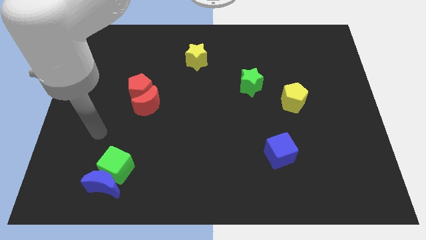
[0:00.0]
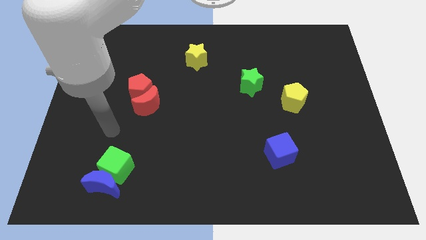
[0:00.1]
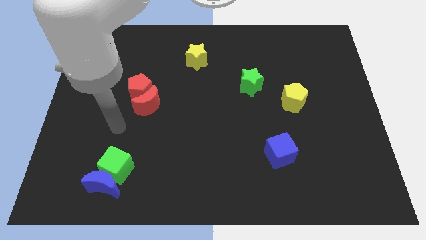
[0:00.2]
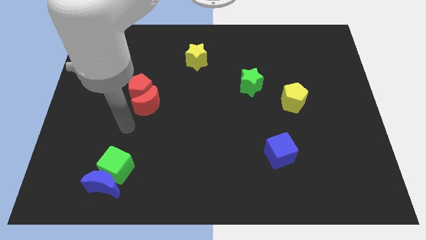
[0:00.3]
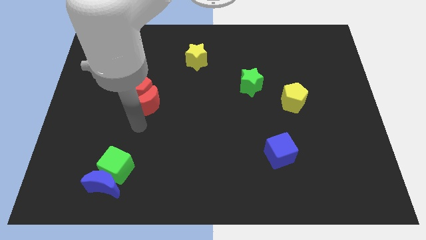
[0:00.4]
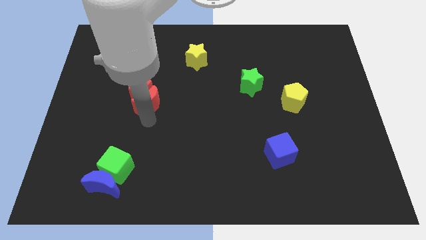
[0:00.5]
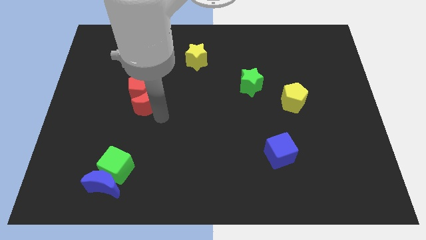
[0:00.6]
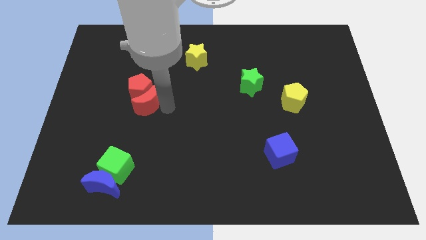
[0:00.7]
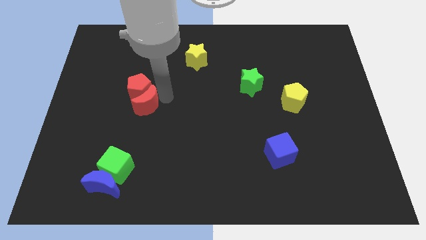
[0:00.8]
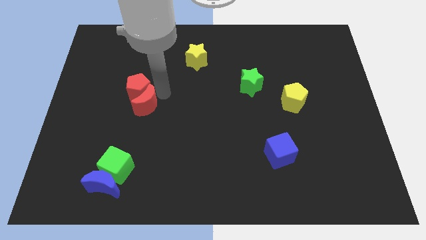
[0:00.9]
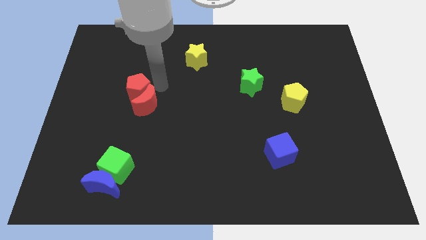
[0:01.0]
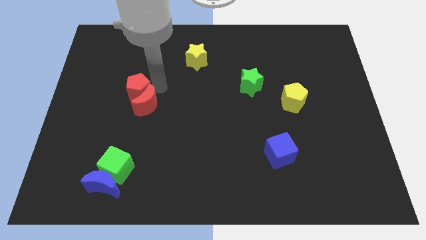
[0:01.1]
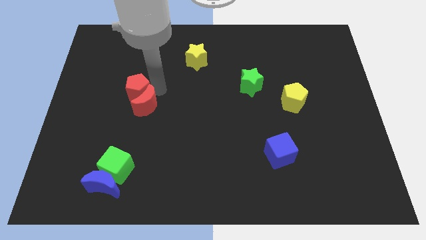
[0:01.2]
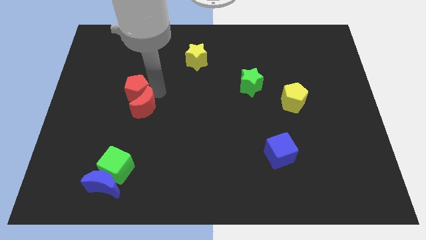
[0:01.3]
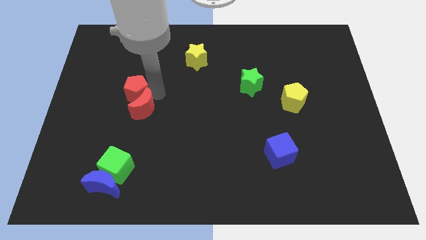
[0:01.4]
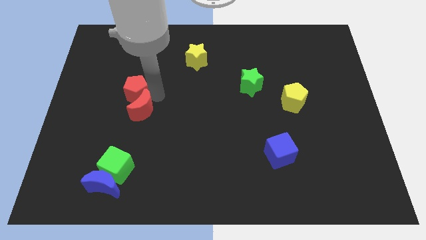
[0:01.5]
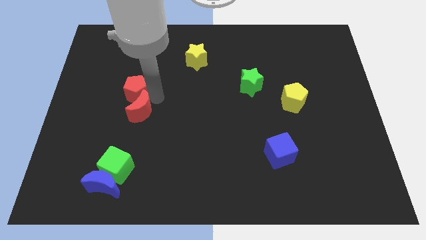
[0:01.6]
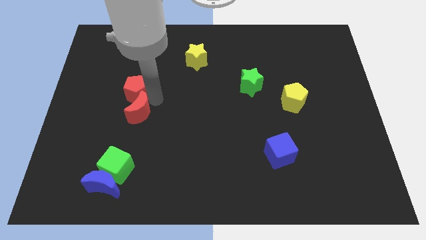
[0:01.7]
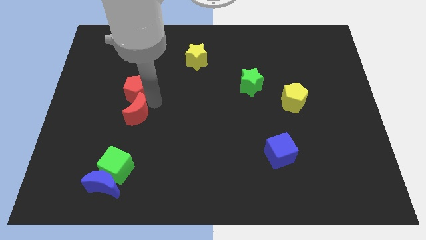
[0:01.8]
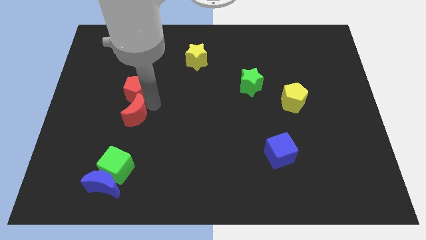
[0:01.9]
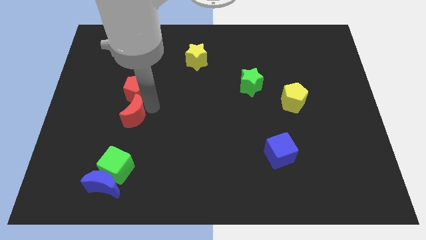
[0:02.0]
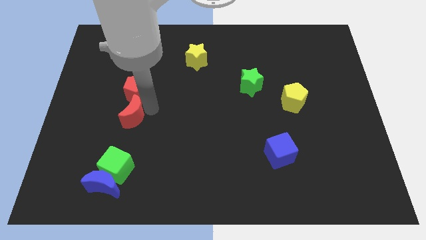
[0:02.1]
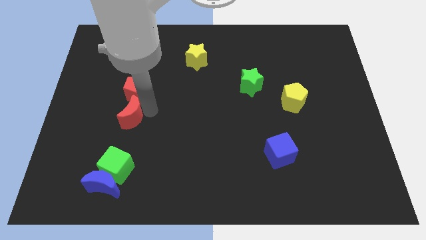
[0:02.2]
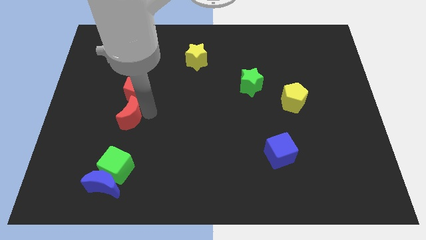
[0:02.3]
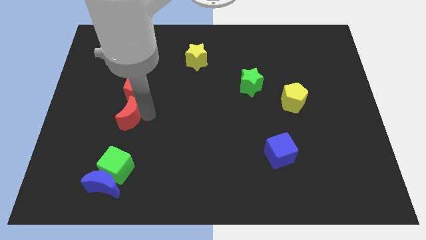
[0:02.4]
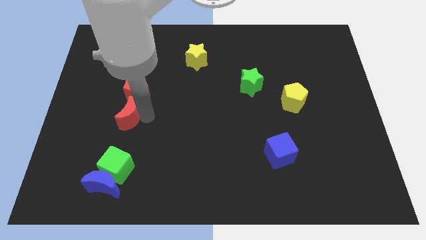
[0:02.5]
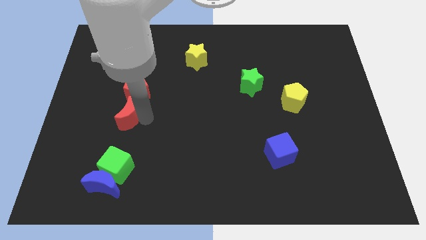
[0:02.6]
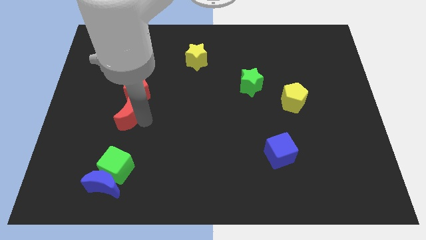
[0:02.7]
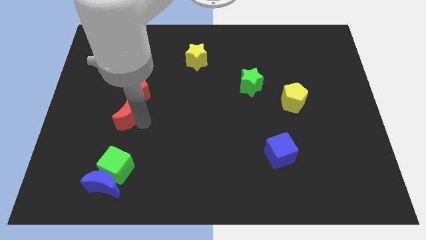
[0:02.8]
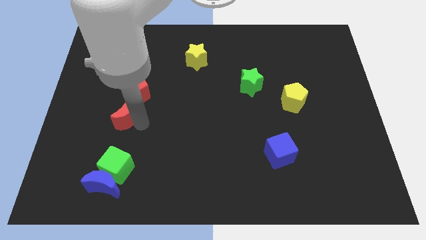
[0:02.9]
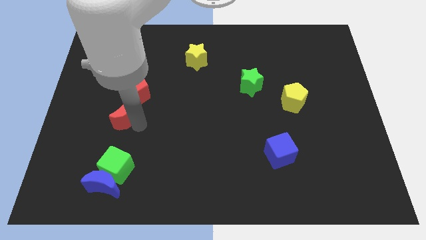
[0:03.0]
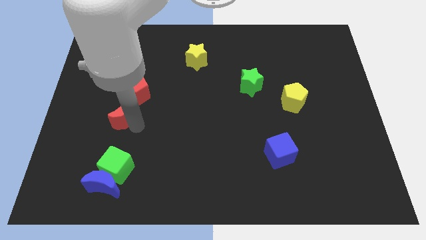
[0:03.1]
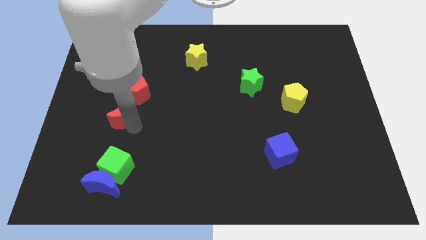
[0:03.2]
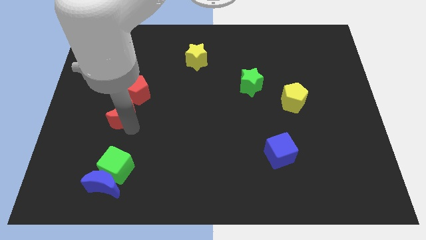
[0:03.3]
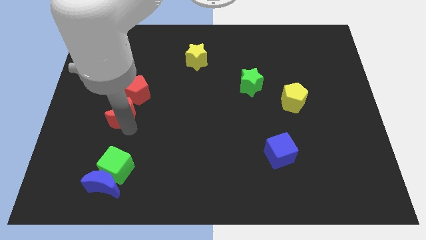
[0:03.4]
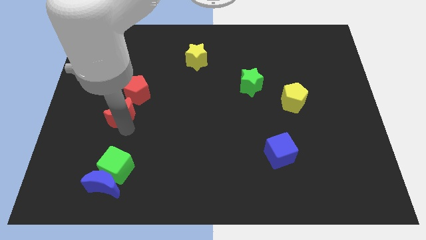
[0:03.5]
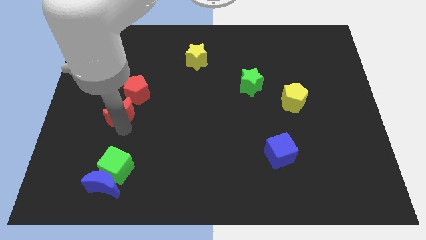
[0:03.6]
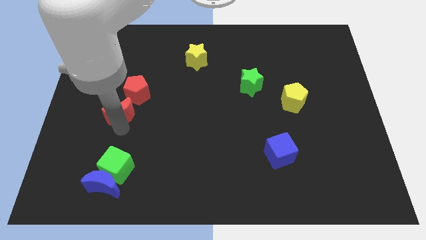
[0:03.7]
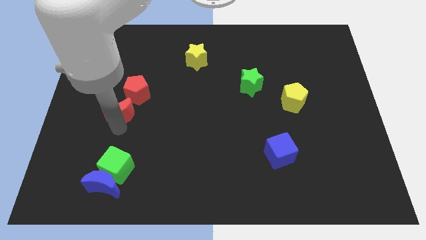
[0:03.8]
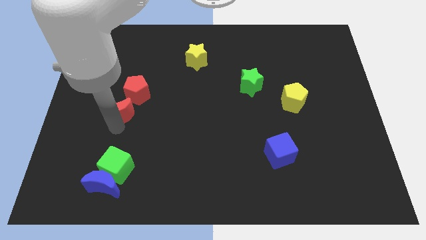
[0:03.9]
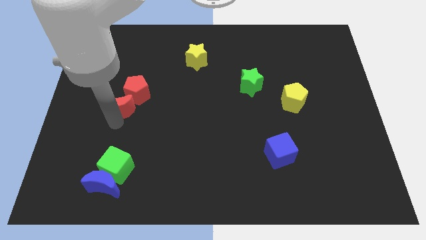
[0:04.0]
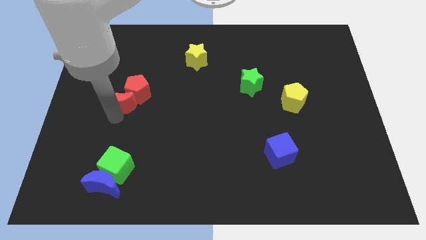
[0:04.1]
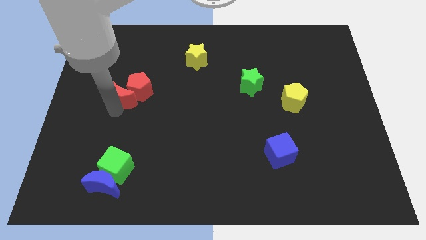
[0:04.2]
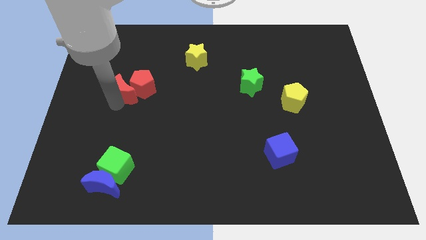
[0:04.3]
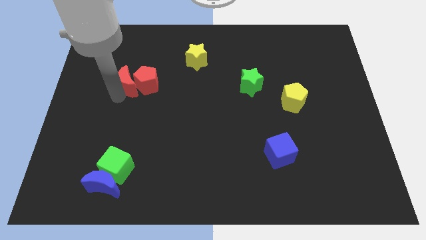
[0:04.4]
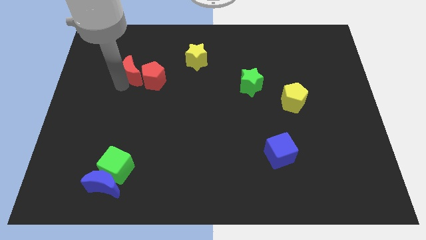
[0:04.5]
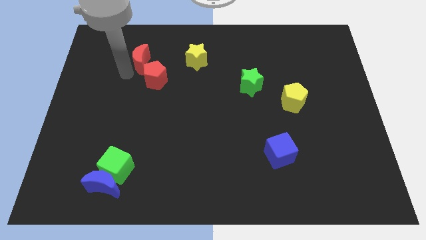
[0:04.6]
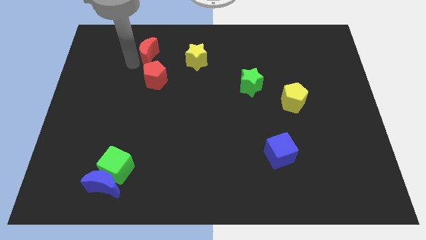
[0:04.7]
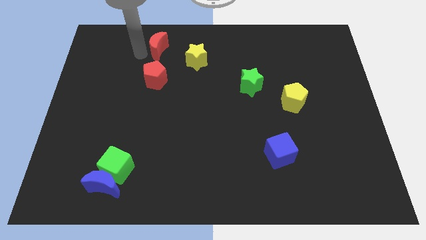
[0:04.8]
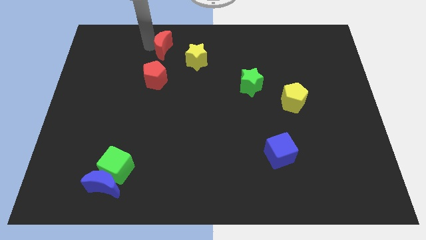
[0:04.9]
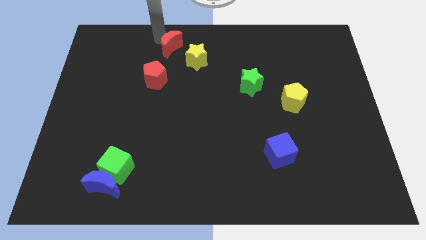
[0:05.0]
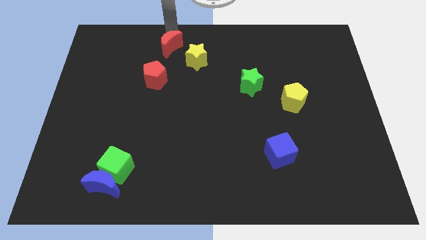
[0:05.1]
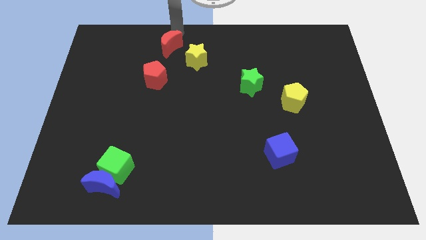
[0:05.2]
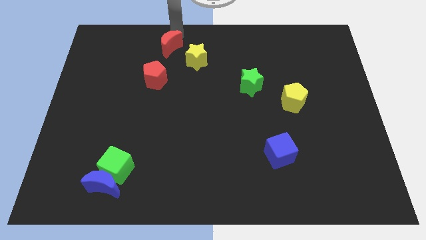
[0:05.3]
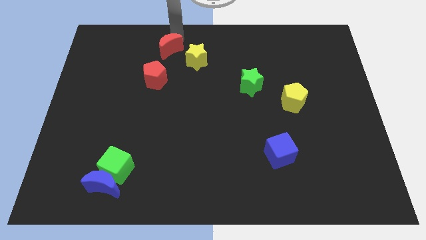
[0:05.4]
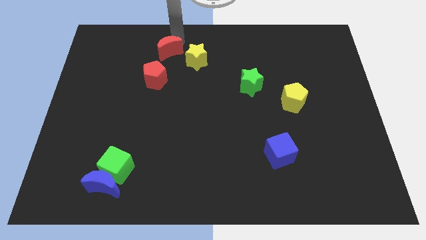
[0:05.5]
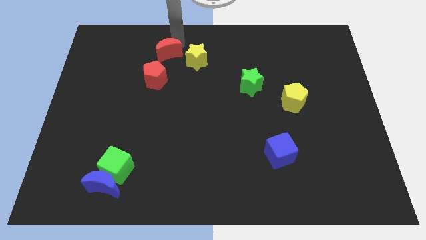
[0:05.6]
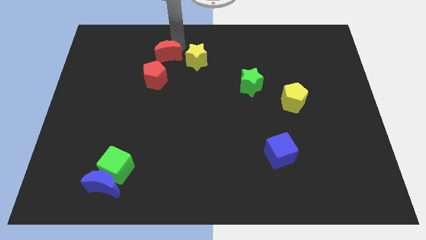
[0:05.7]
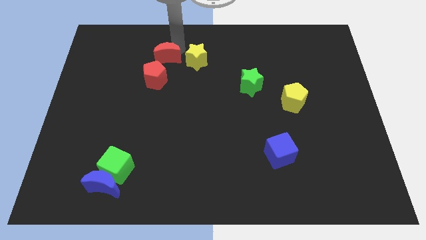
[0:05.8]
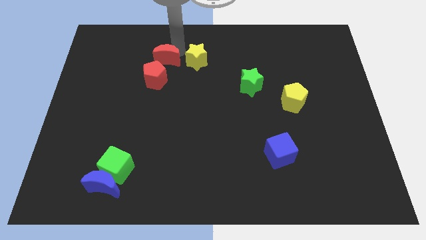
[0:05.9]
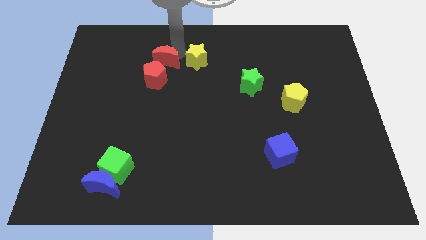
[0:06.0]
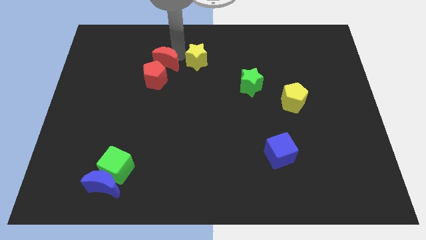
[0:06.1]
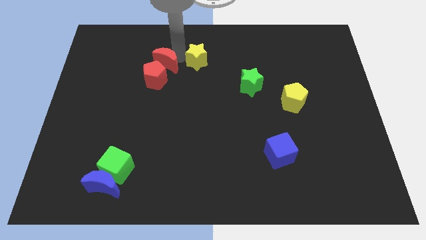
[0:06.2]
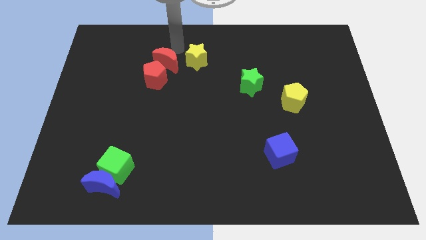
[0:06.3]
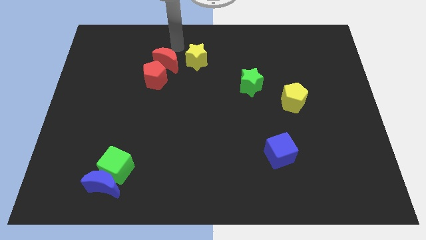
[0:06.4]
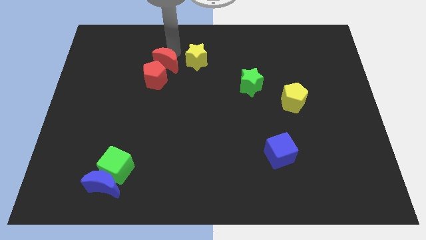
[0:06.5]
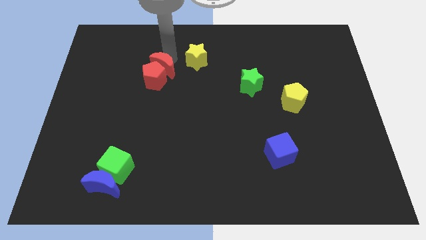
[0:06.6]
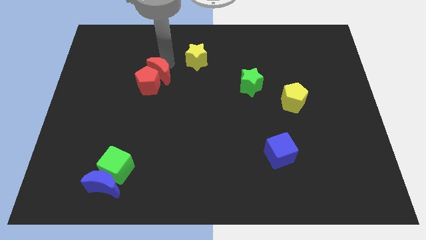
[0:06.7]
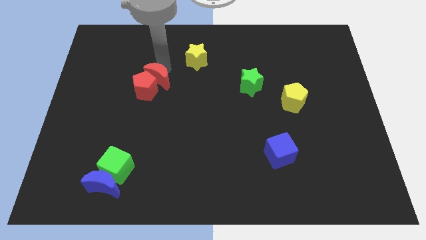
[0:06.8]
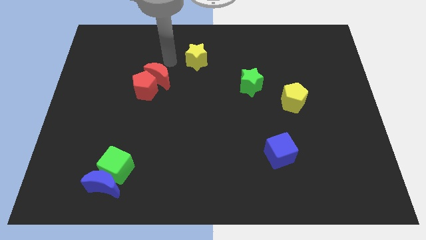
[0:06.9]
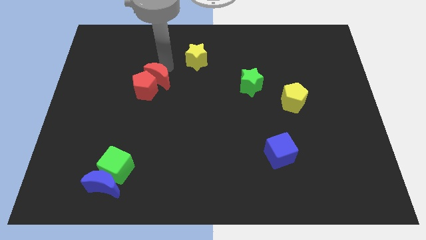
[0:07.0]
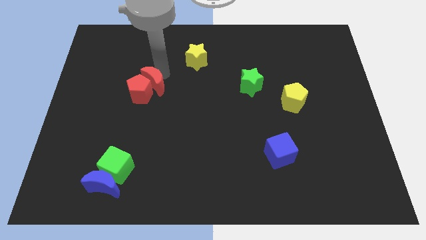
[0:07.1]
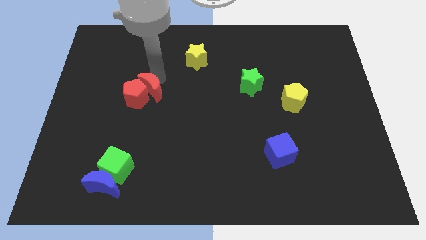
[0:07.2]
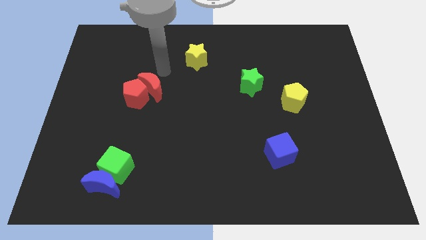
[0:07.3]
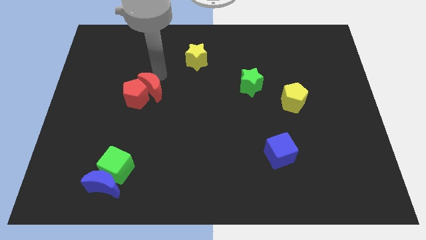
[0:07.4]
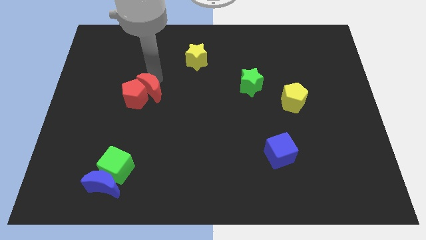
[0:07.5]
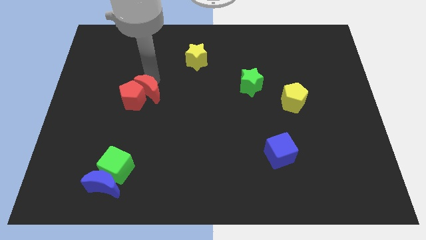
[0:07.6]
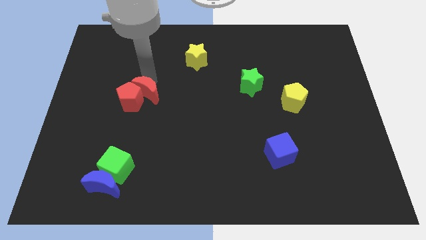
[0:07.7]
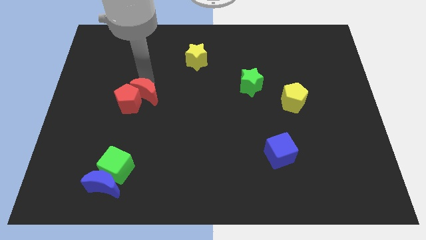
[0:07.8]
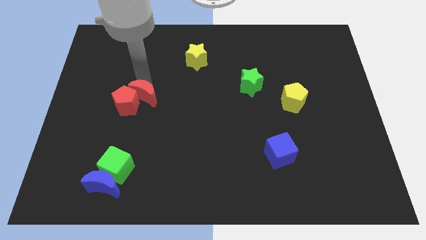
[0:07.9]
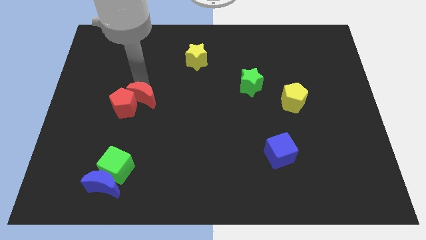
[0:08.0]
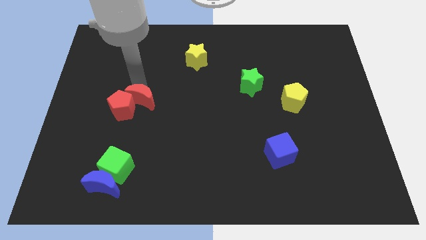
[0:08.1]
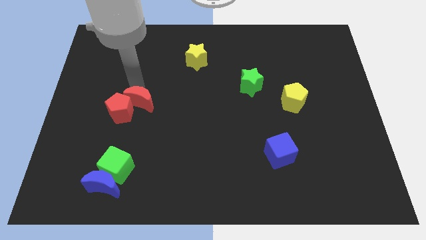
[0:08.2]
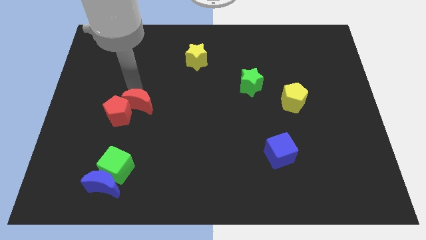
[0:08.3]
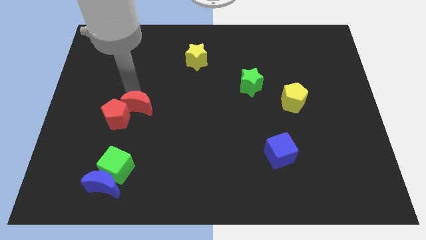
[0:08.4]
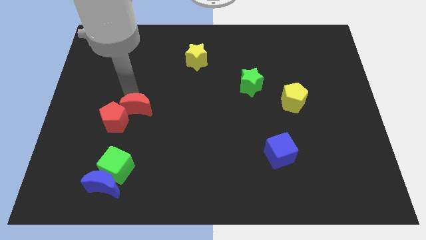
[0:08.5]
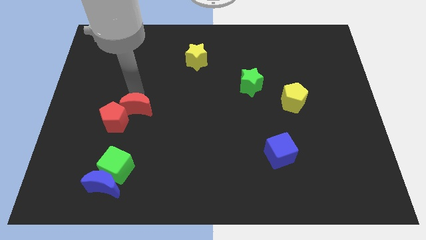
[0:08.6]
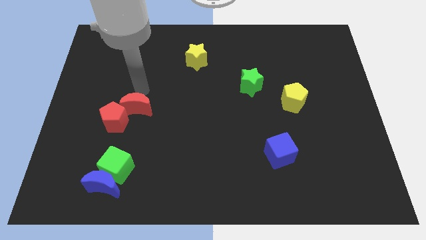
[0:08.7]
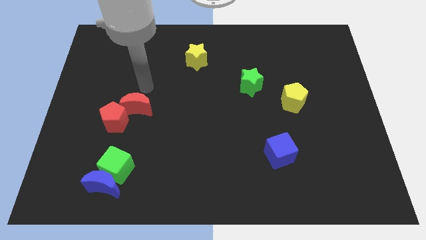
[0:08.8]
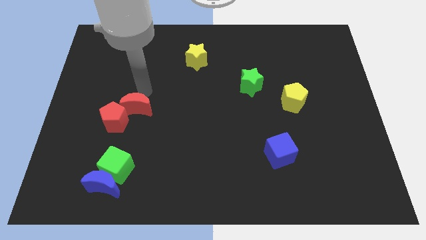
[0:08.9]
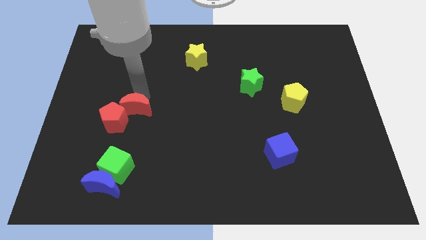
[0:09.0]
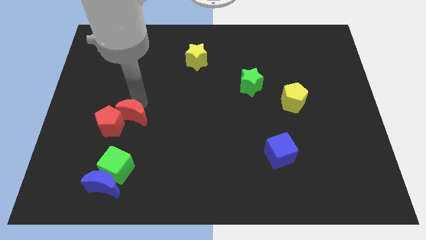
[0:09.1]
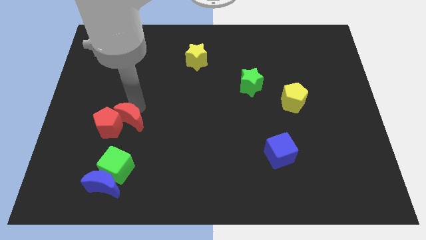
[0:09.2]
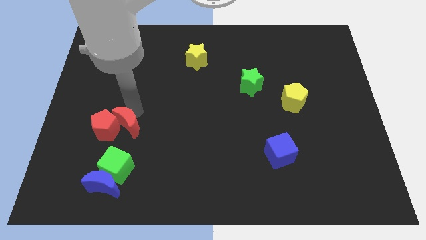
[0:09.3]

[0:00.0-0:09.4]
put the red moon to the top of the blue moon
